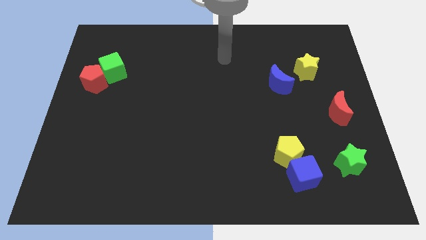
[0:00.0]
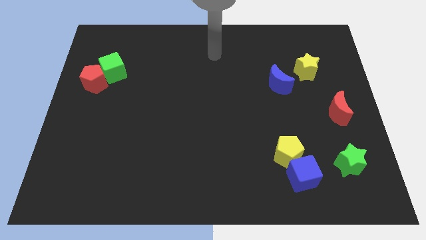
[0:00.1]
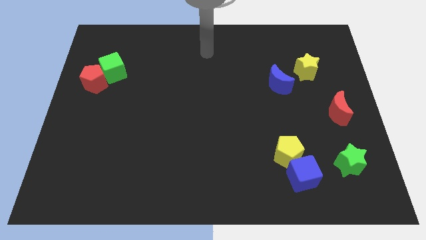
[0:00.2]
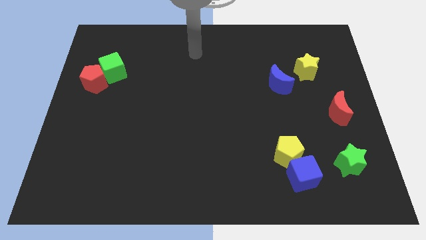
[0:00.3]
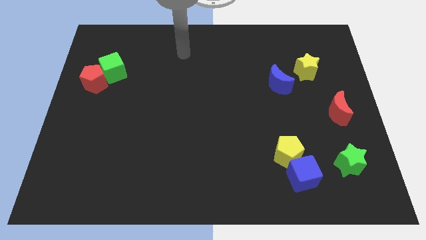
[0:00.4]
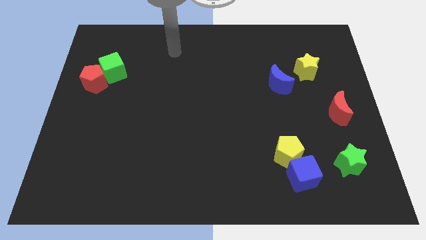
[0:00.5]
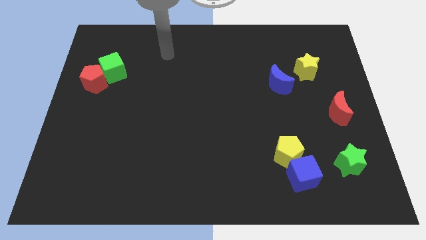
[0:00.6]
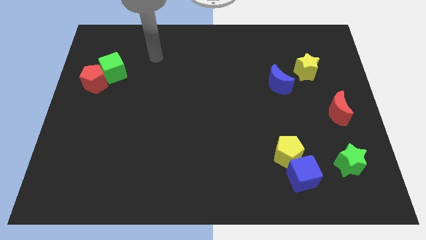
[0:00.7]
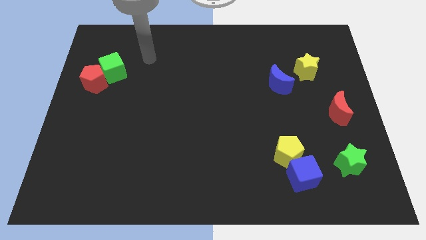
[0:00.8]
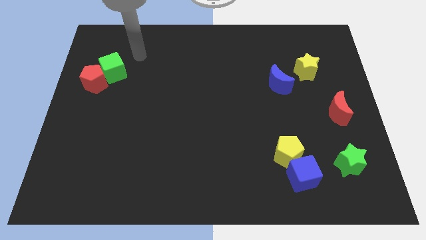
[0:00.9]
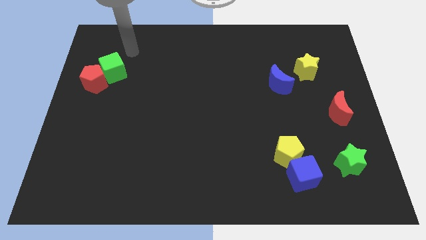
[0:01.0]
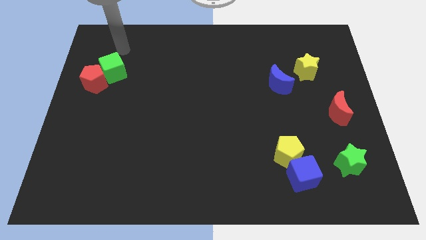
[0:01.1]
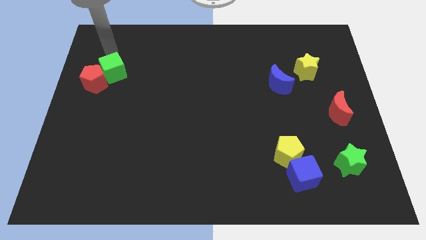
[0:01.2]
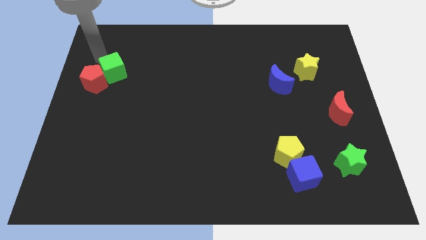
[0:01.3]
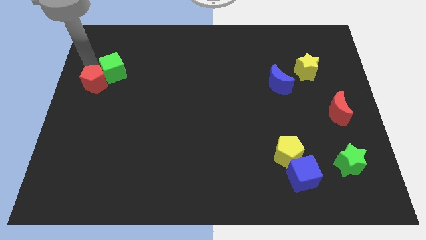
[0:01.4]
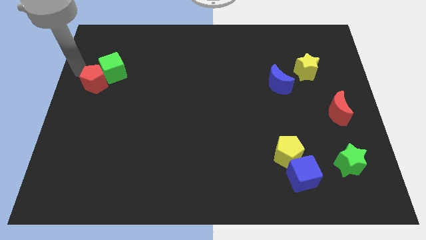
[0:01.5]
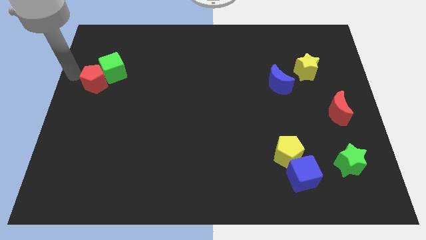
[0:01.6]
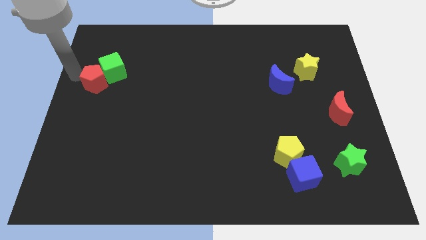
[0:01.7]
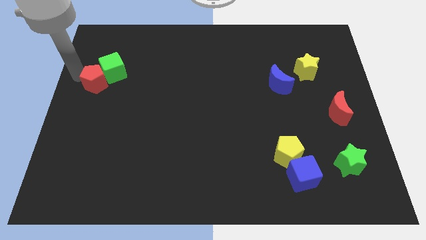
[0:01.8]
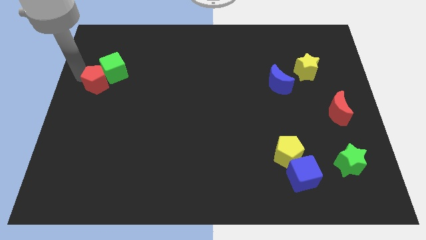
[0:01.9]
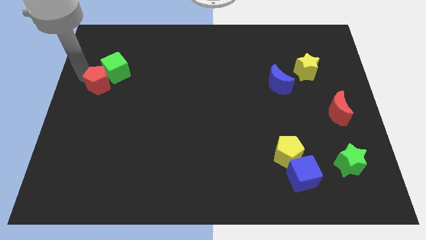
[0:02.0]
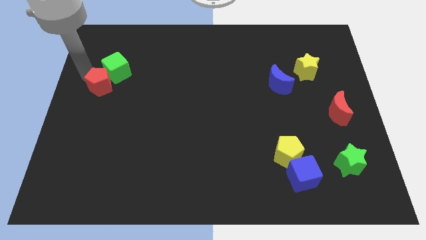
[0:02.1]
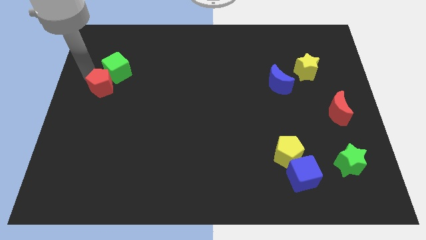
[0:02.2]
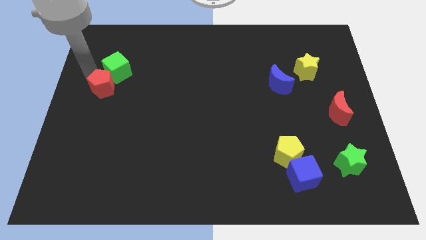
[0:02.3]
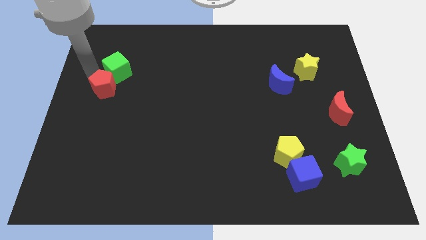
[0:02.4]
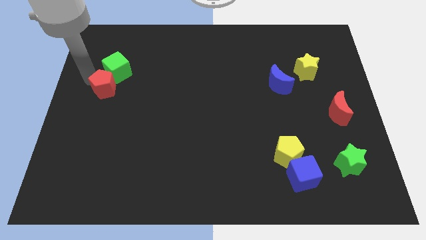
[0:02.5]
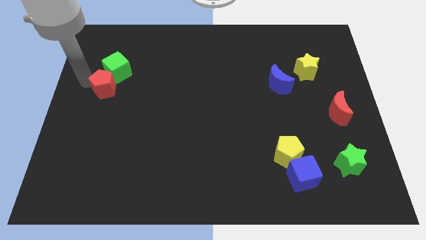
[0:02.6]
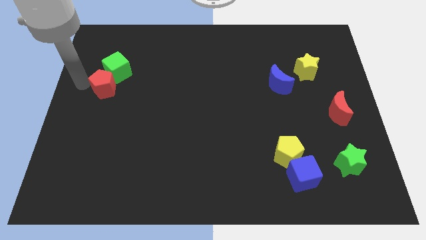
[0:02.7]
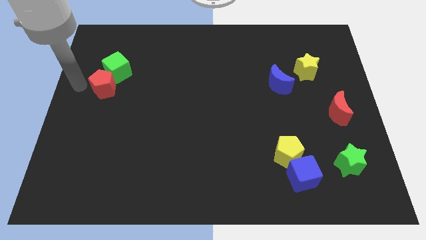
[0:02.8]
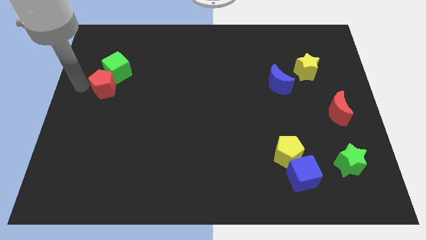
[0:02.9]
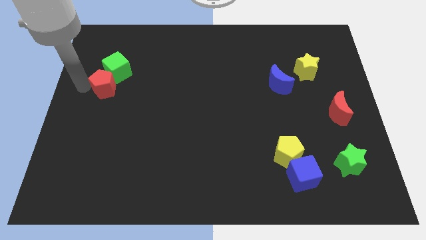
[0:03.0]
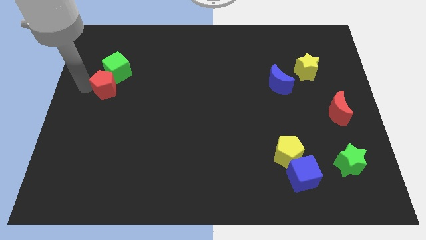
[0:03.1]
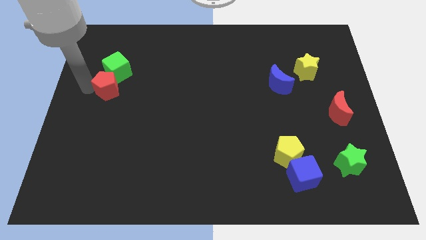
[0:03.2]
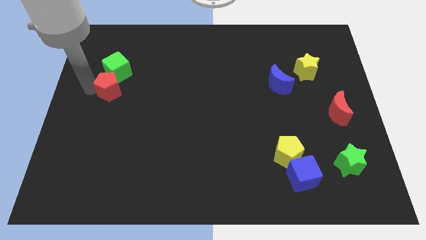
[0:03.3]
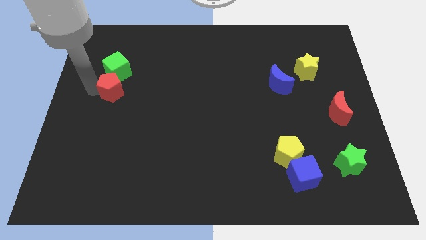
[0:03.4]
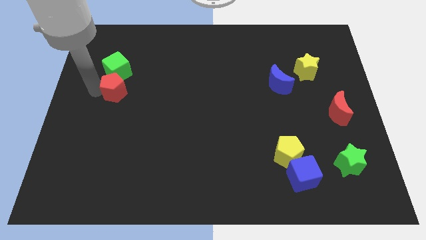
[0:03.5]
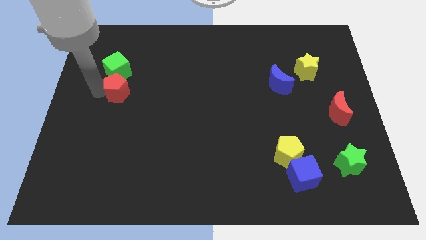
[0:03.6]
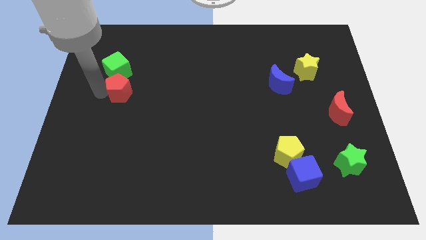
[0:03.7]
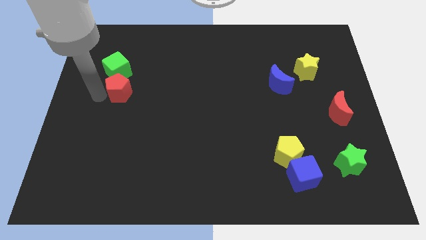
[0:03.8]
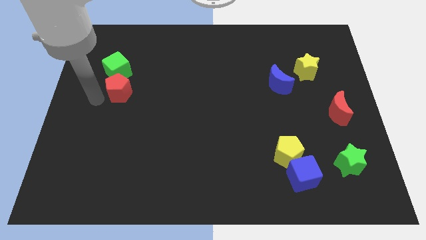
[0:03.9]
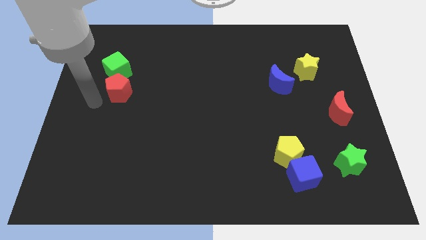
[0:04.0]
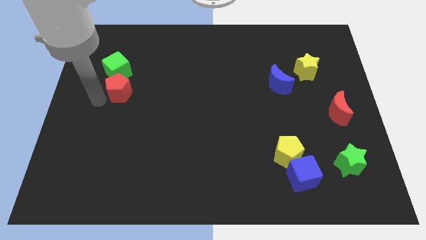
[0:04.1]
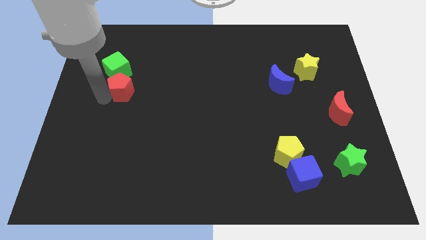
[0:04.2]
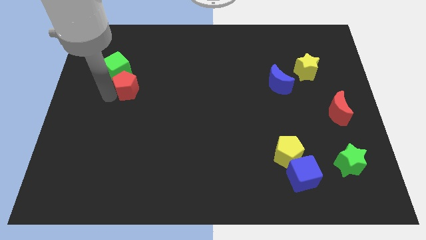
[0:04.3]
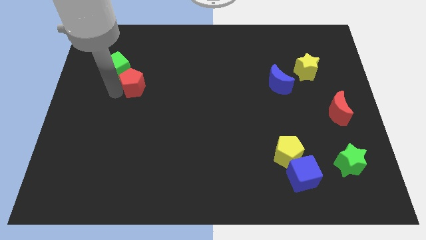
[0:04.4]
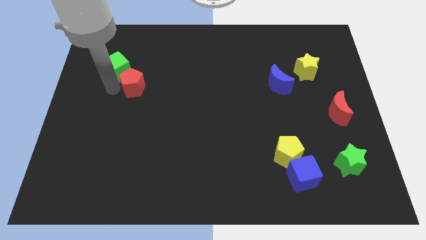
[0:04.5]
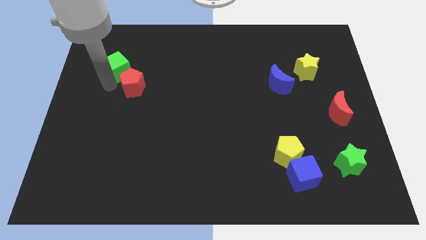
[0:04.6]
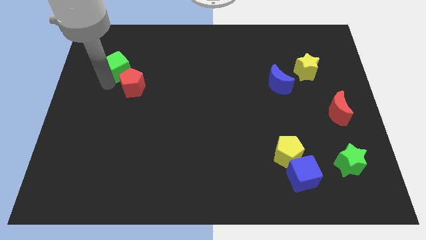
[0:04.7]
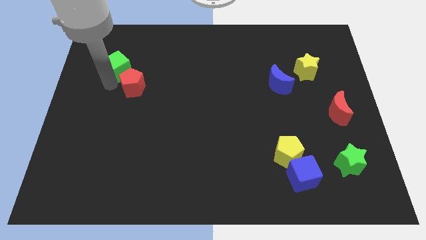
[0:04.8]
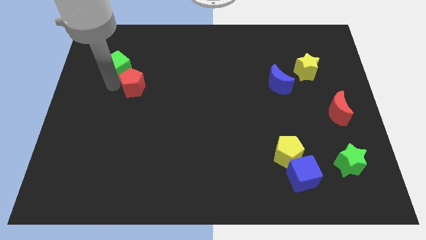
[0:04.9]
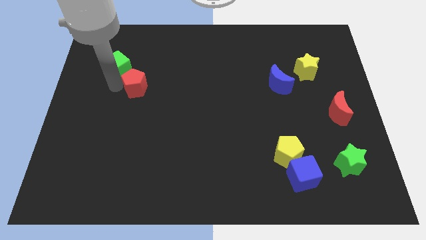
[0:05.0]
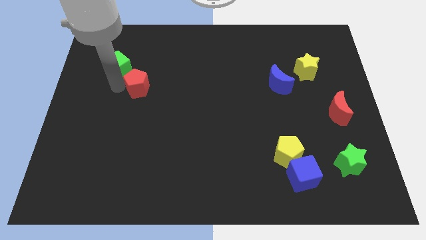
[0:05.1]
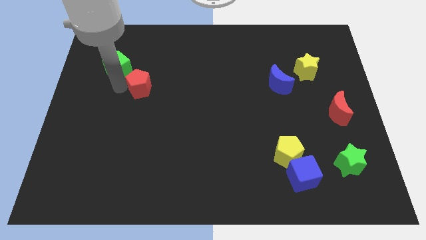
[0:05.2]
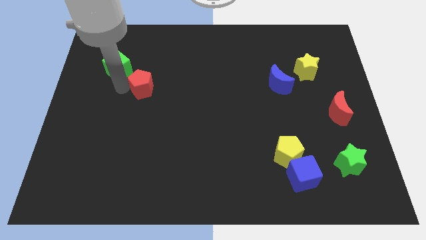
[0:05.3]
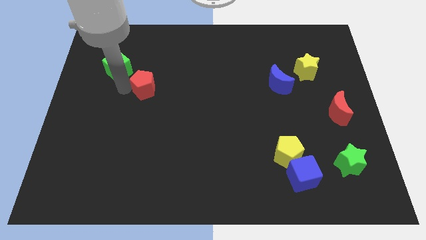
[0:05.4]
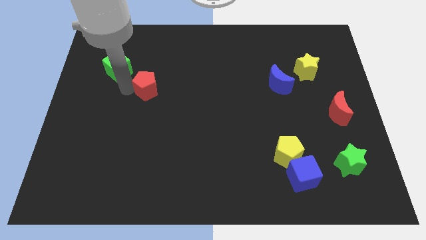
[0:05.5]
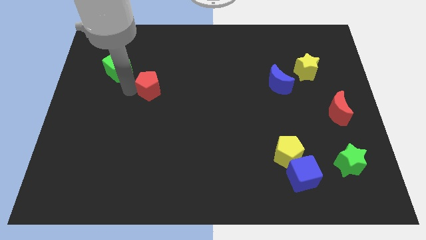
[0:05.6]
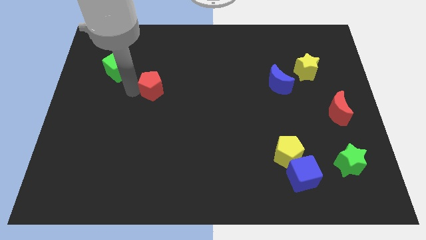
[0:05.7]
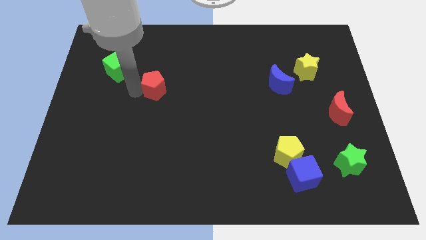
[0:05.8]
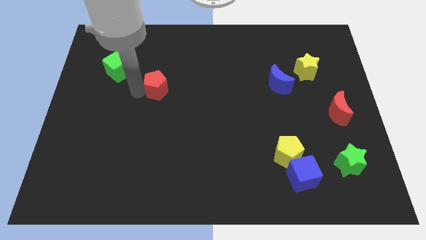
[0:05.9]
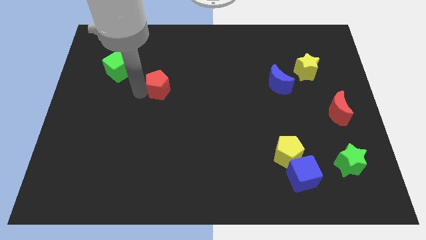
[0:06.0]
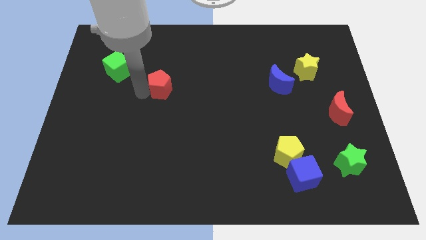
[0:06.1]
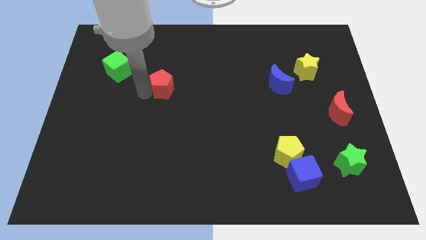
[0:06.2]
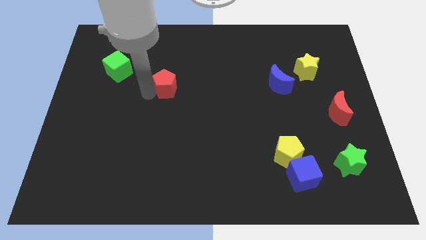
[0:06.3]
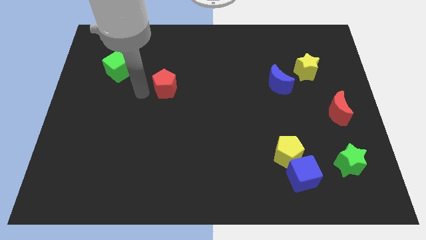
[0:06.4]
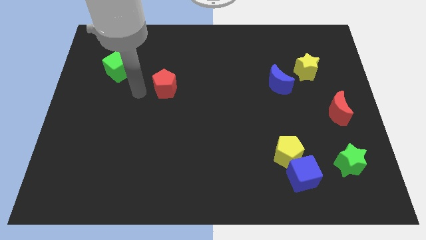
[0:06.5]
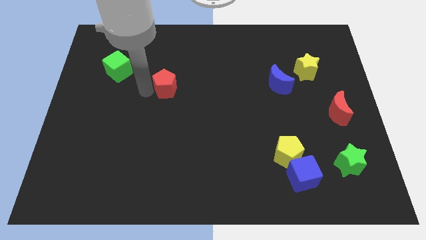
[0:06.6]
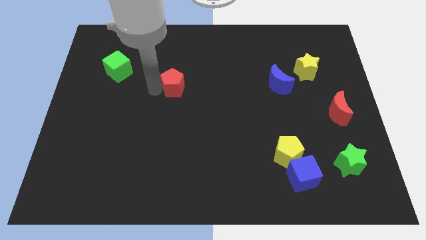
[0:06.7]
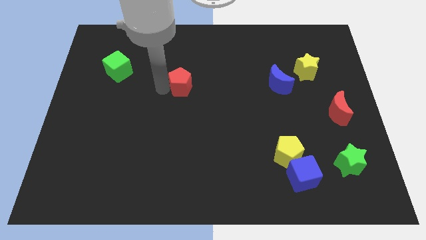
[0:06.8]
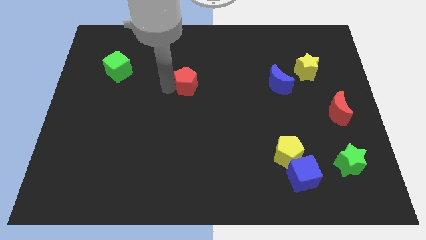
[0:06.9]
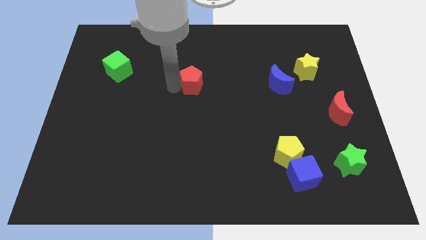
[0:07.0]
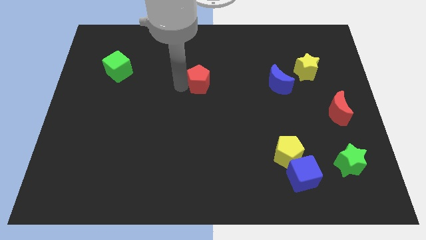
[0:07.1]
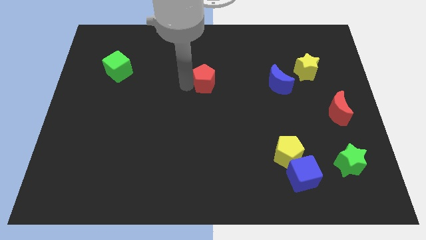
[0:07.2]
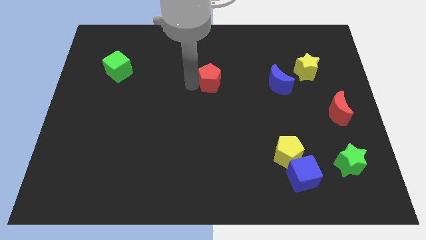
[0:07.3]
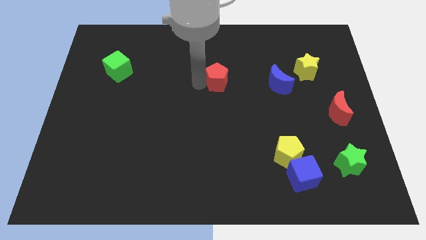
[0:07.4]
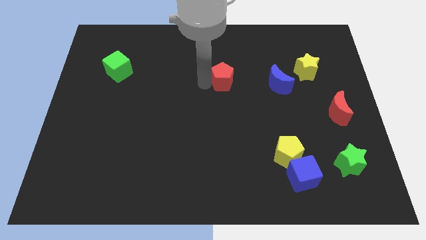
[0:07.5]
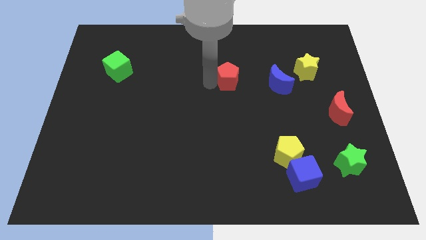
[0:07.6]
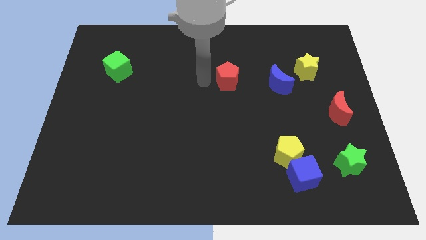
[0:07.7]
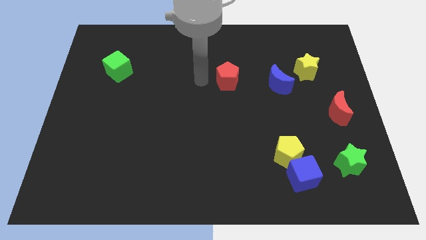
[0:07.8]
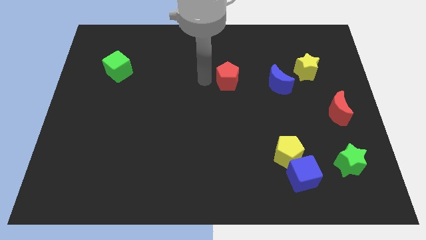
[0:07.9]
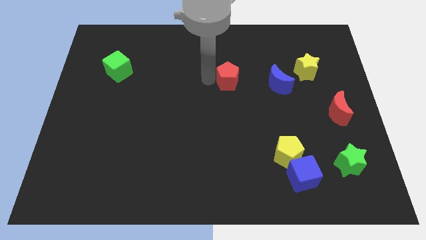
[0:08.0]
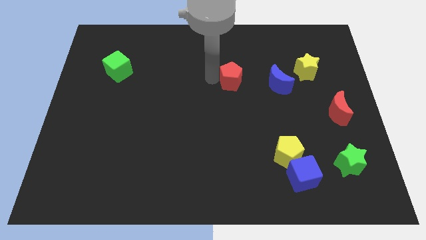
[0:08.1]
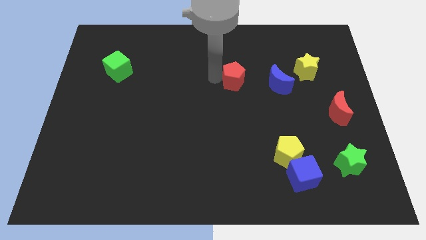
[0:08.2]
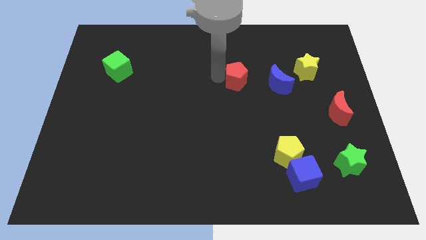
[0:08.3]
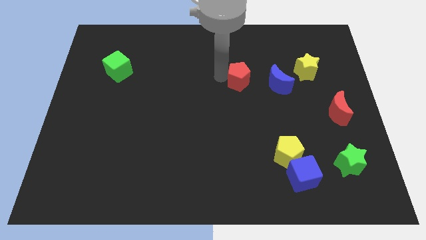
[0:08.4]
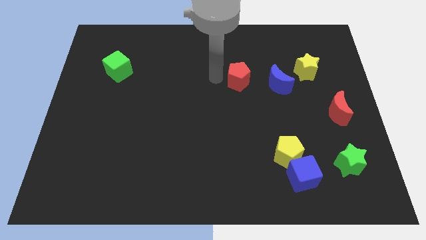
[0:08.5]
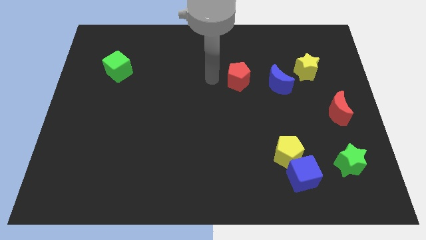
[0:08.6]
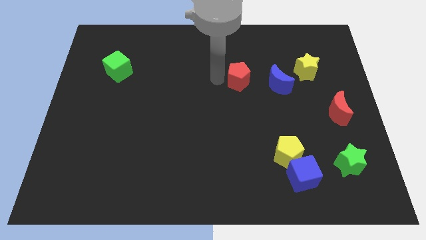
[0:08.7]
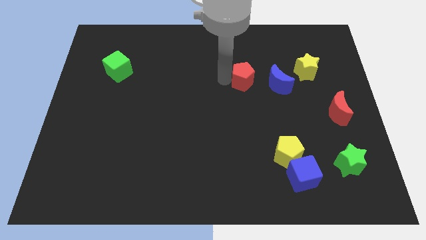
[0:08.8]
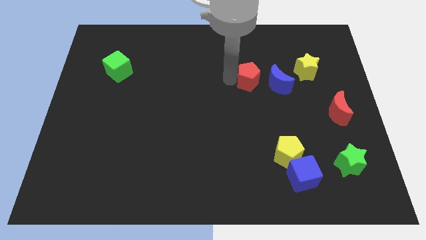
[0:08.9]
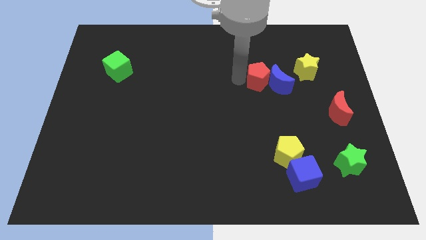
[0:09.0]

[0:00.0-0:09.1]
push the red pentagon close to the blue moon
